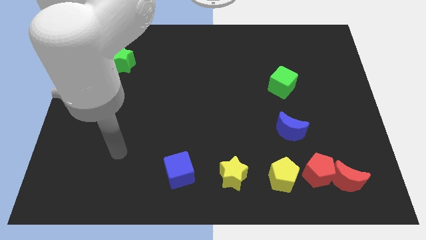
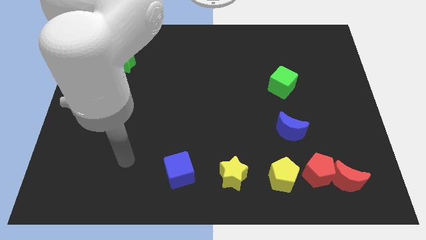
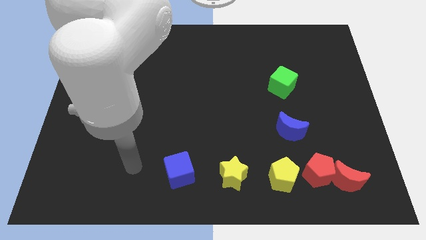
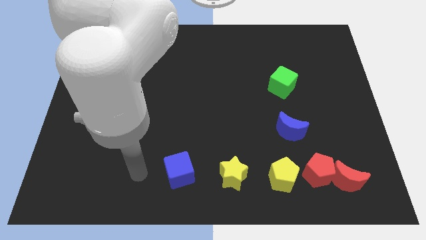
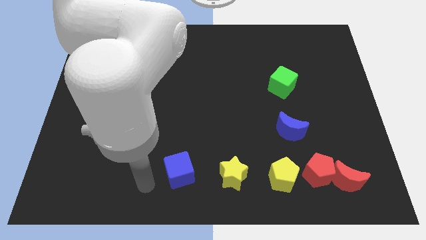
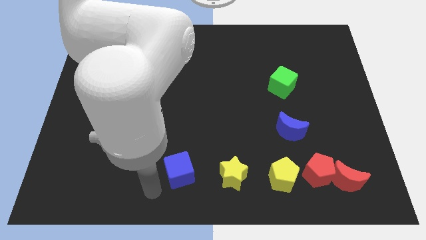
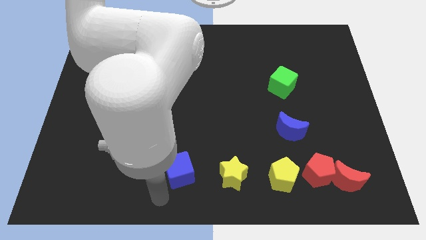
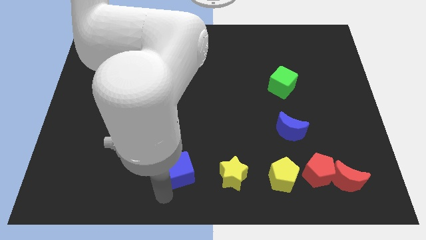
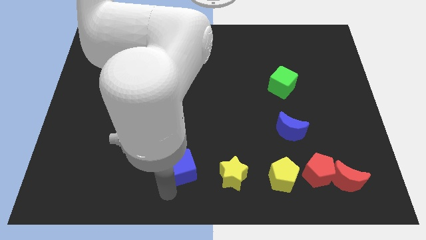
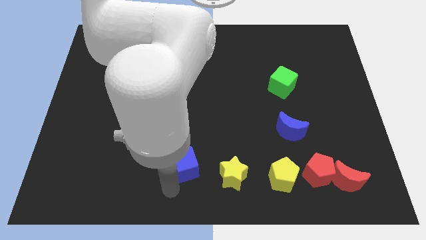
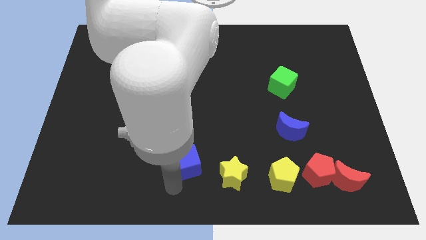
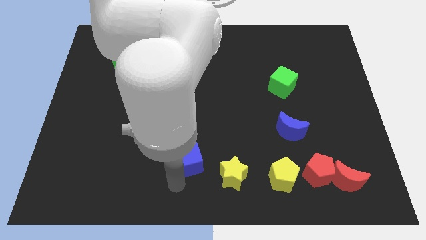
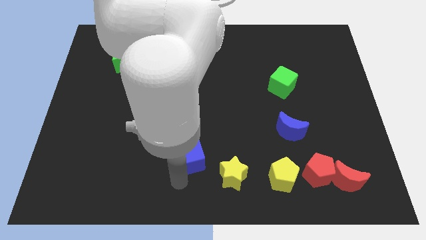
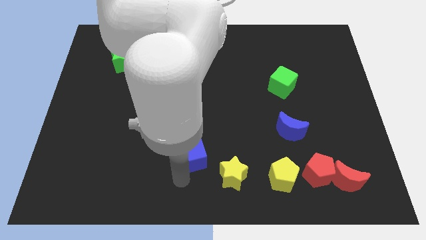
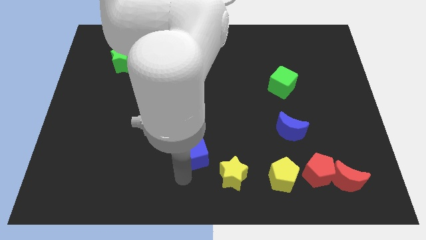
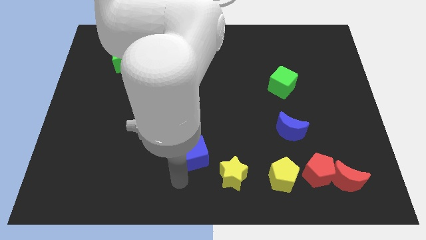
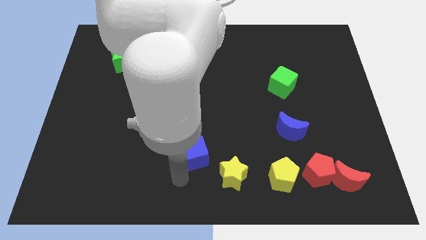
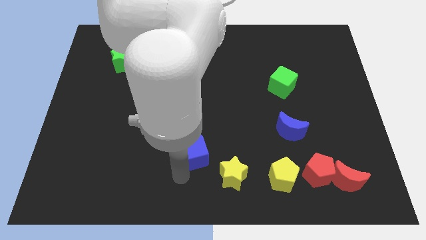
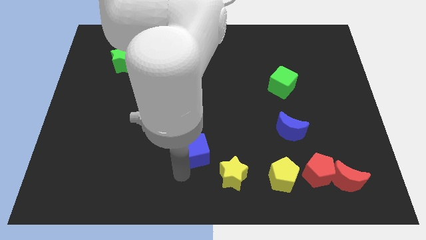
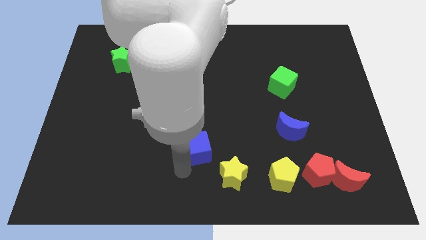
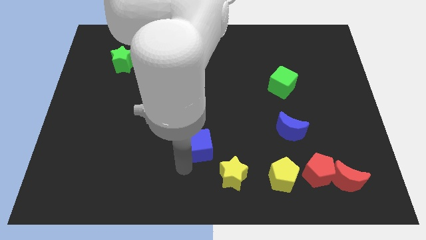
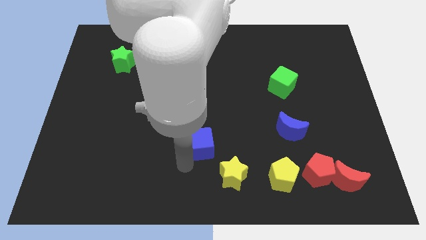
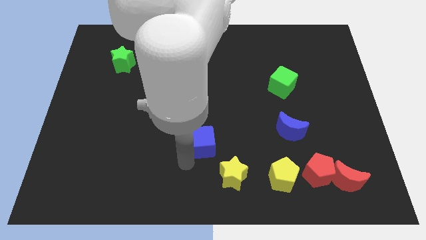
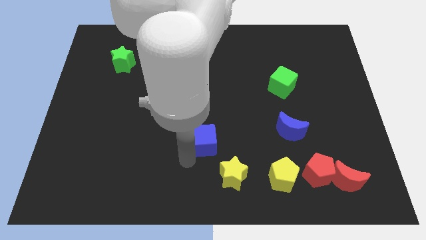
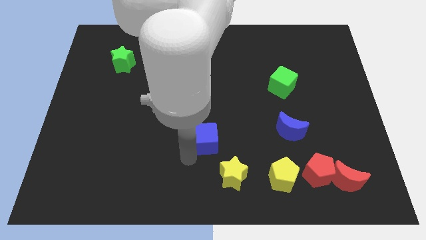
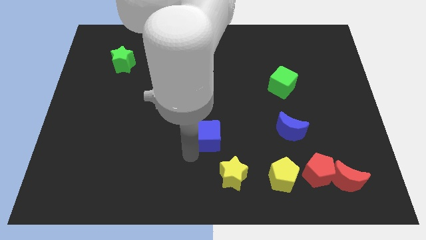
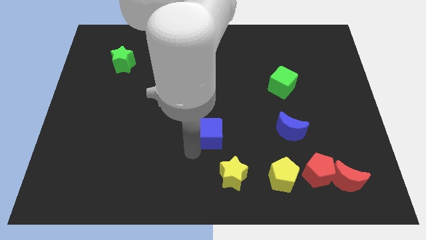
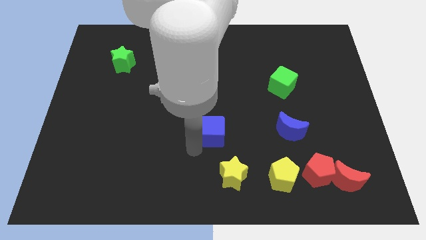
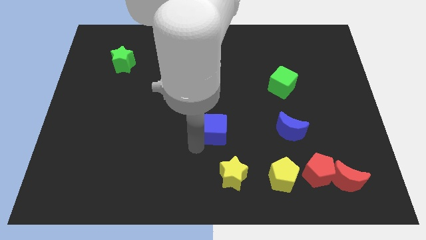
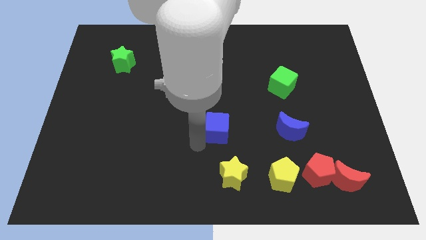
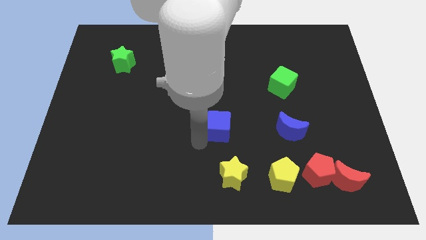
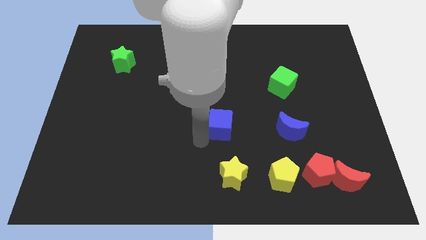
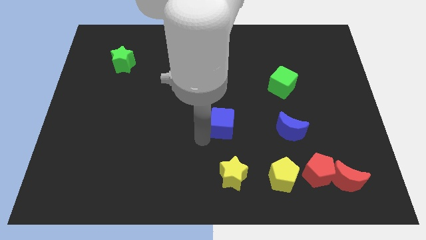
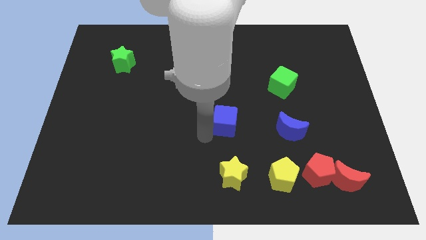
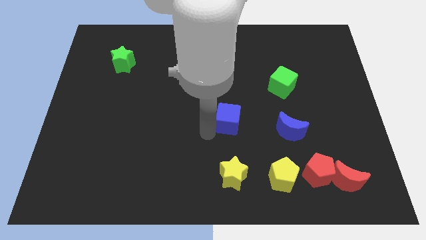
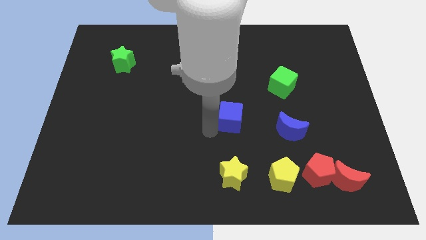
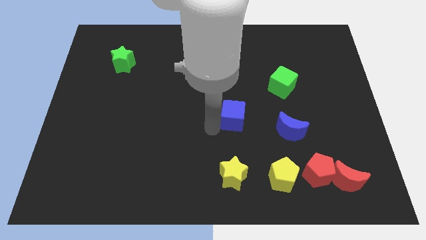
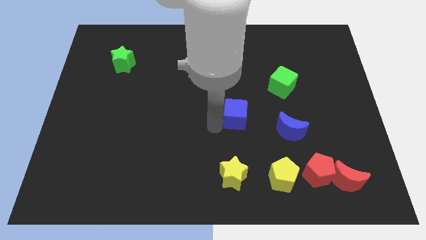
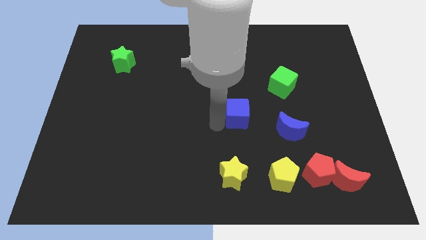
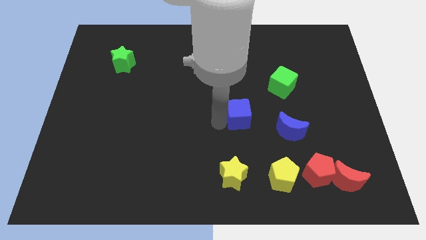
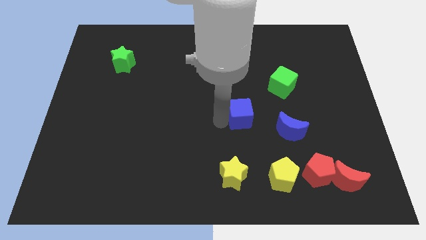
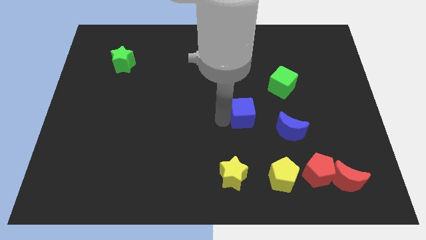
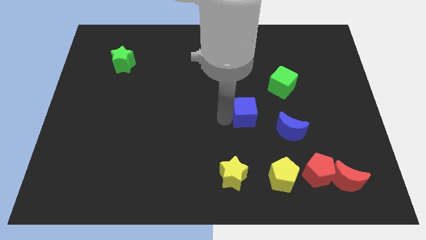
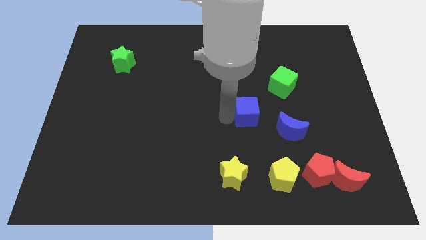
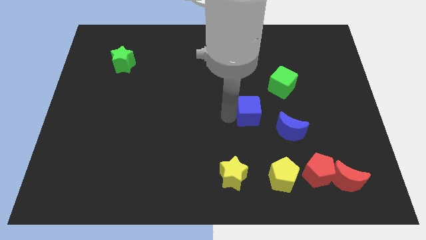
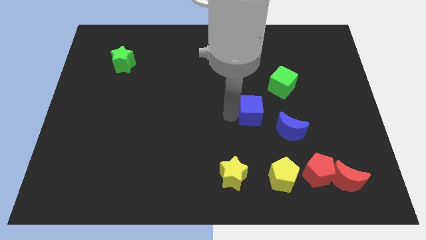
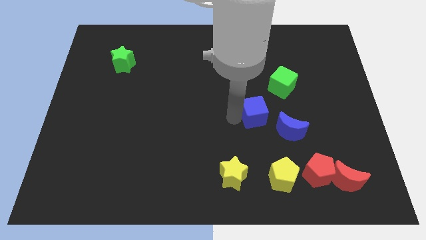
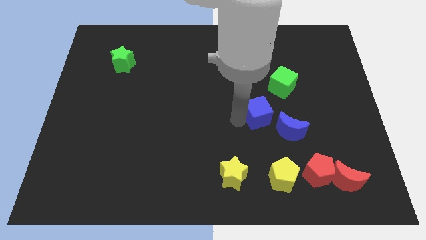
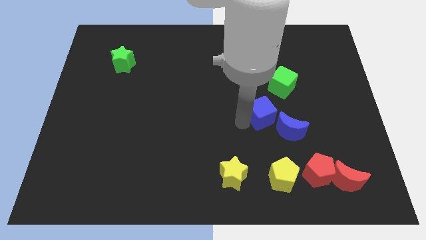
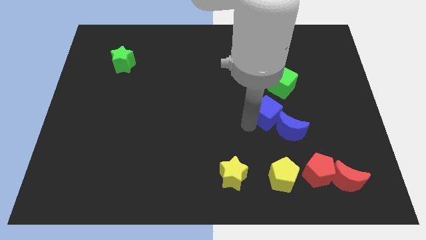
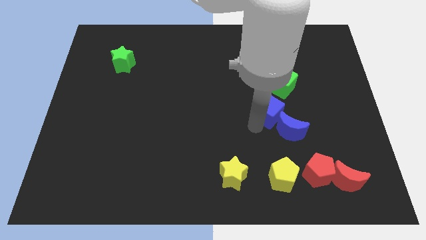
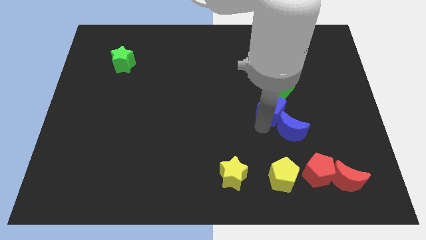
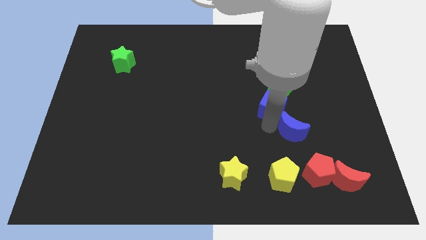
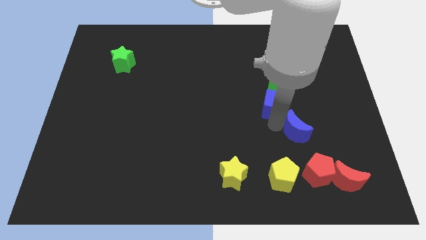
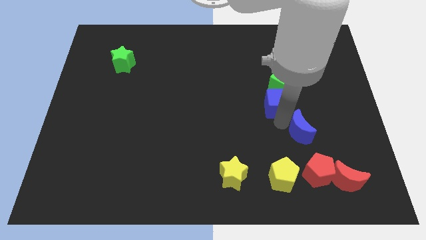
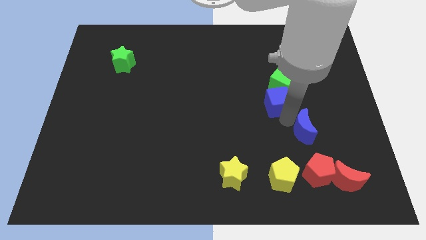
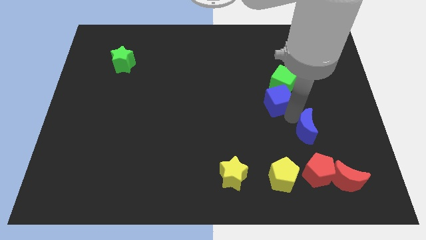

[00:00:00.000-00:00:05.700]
move the blue cube next to the green cube

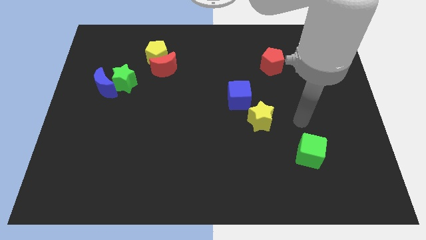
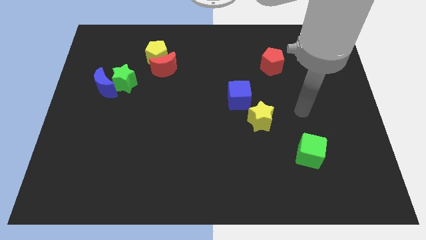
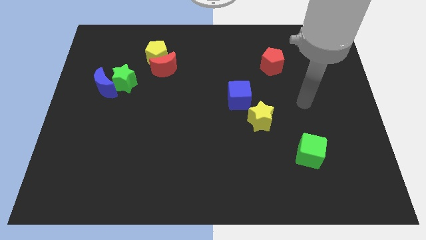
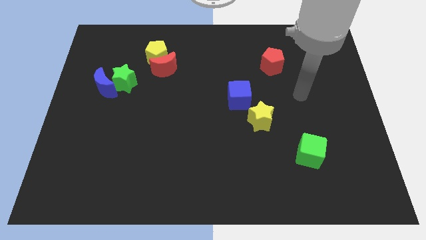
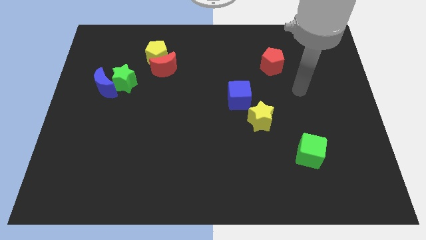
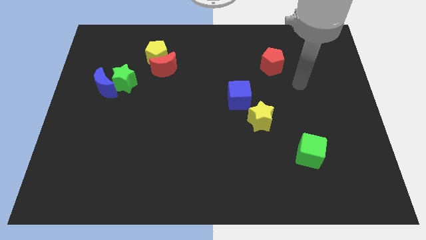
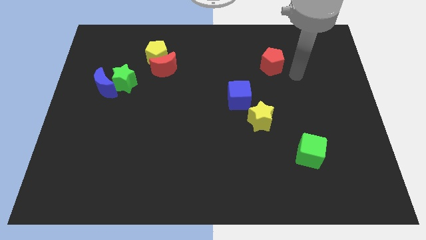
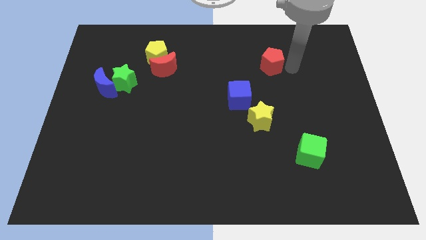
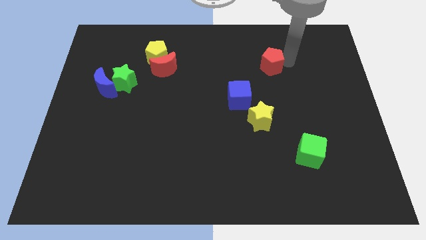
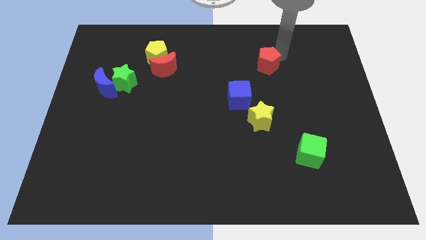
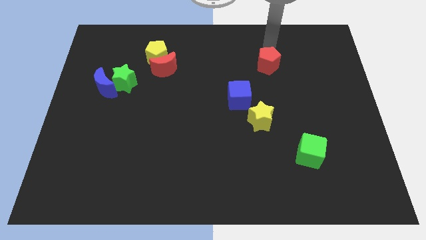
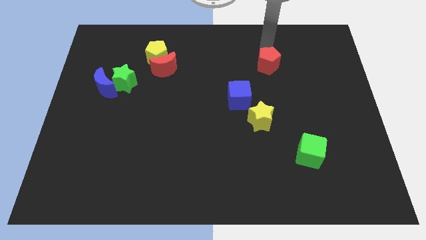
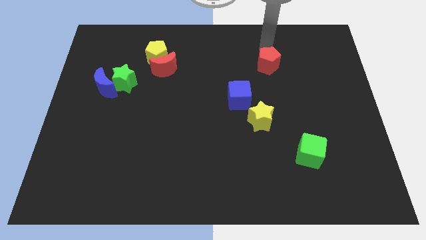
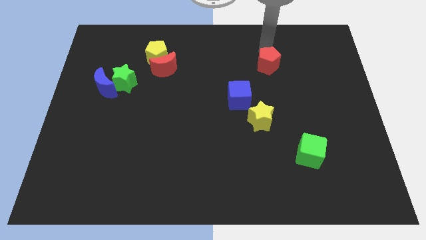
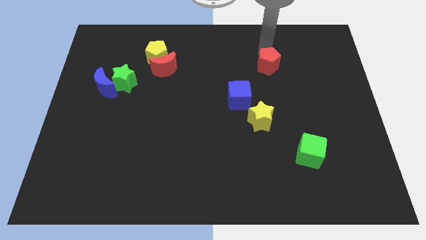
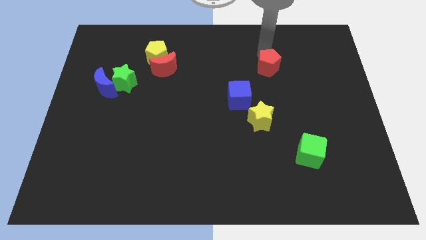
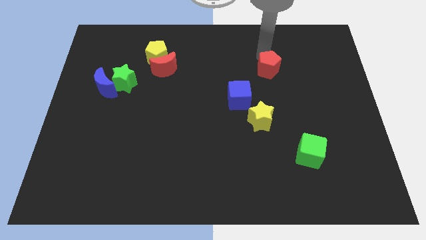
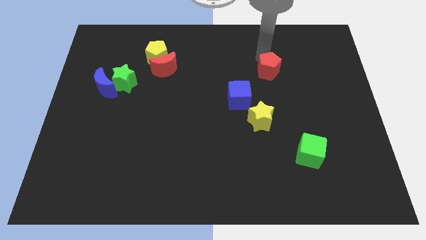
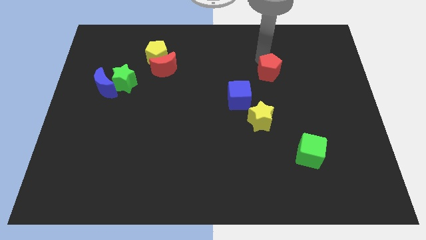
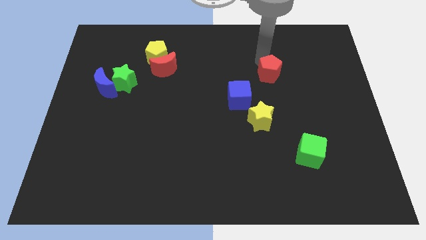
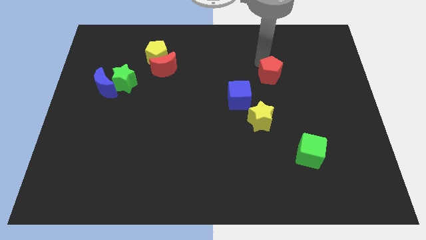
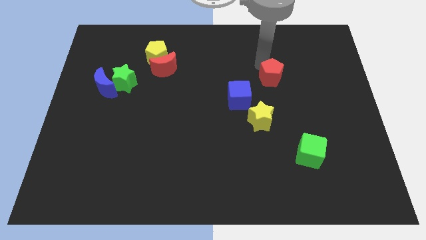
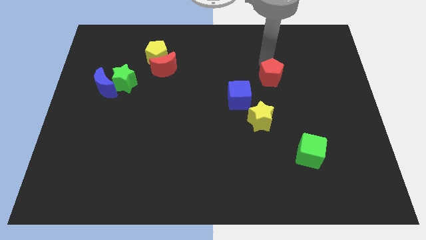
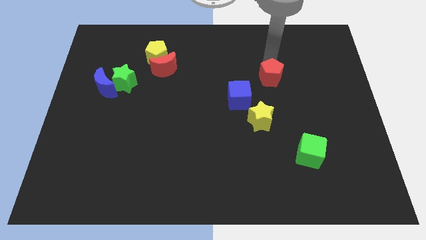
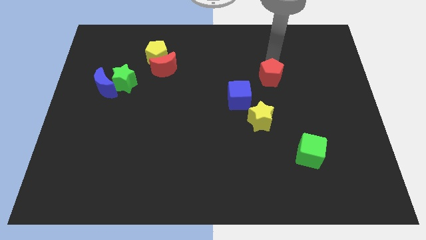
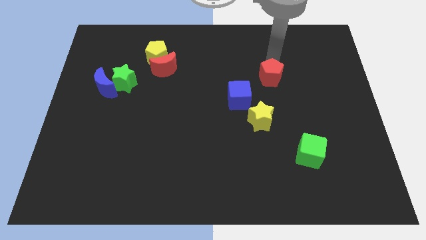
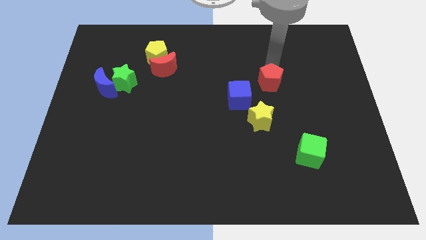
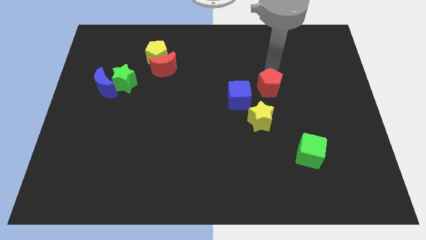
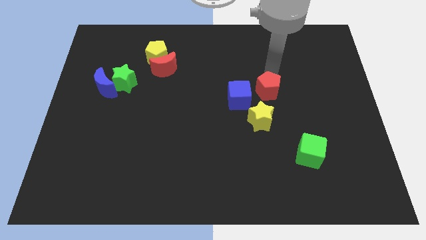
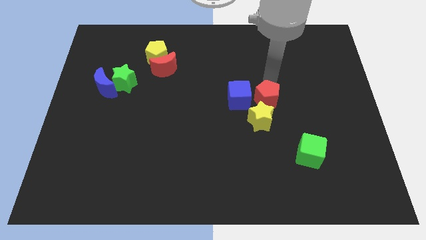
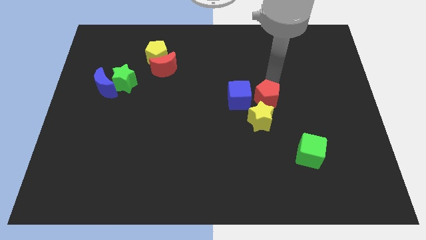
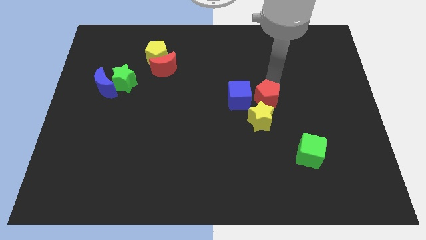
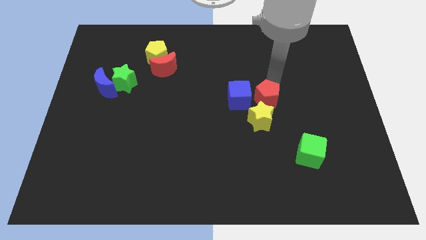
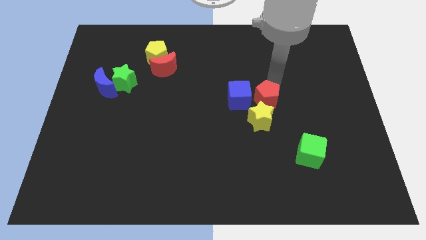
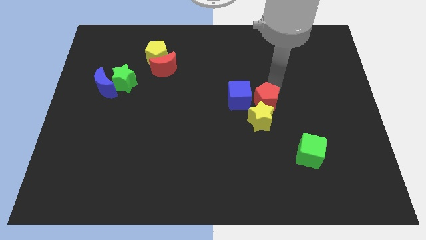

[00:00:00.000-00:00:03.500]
push the red pentagon towards the yellow star
